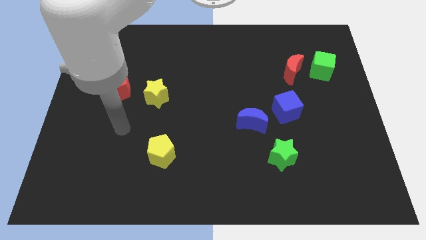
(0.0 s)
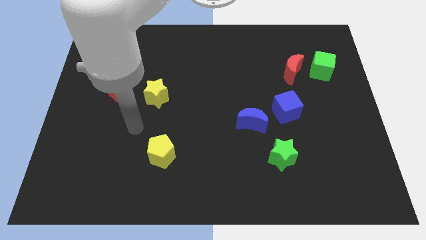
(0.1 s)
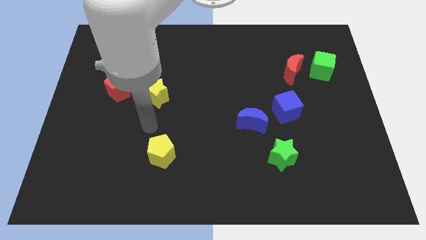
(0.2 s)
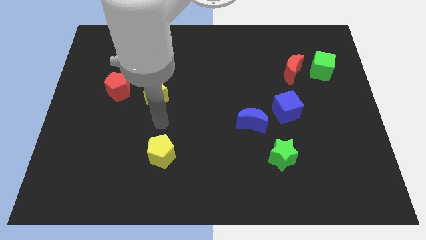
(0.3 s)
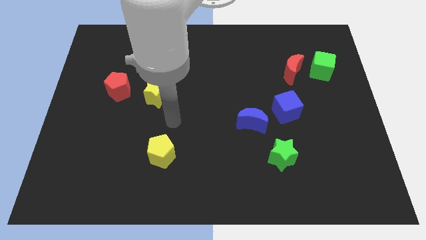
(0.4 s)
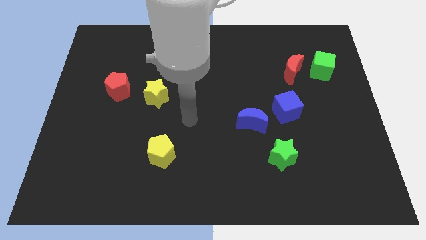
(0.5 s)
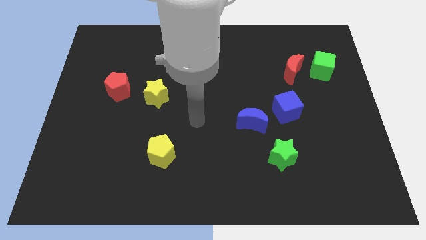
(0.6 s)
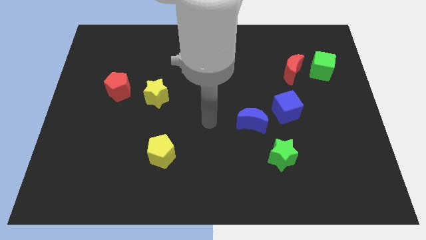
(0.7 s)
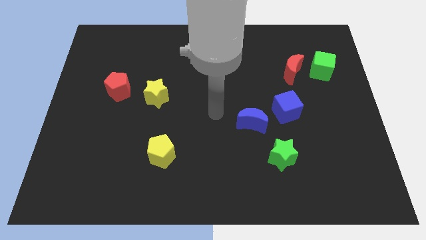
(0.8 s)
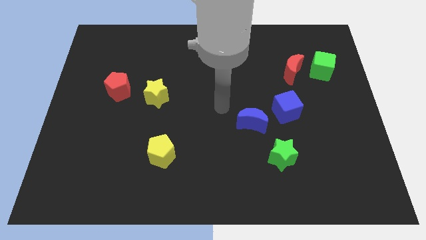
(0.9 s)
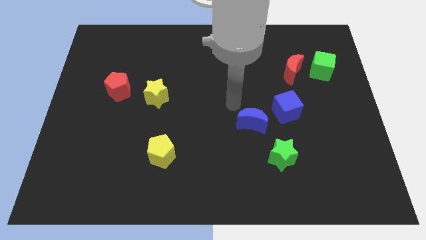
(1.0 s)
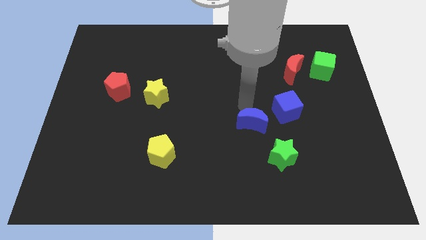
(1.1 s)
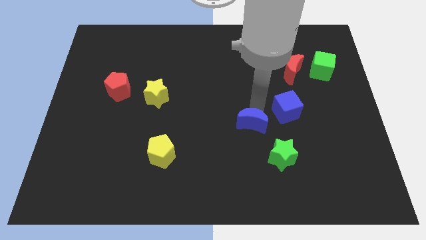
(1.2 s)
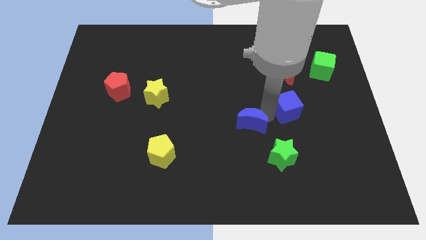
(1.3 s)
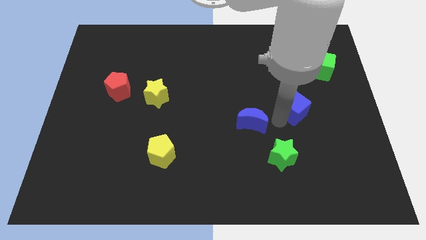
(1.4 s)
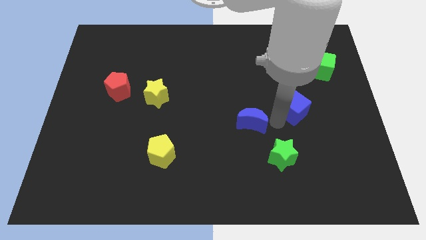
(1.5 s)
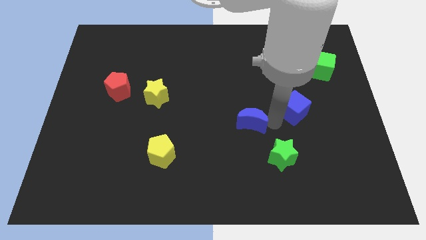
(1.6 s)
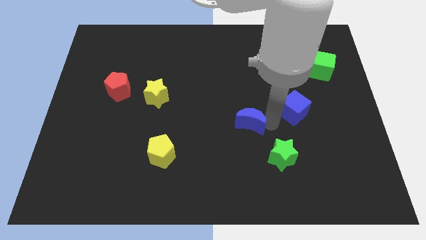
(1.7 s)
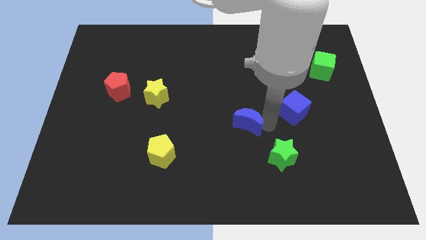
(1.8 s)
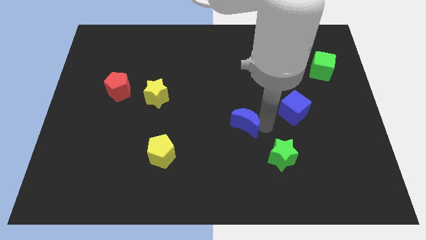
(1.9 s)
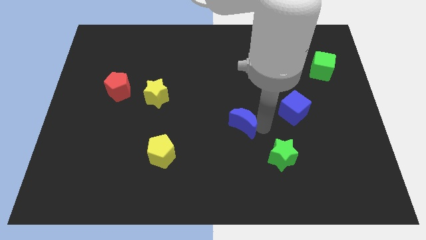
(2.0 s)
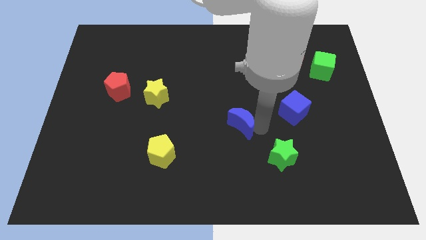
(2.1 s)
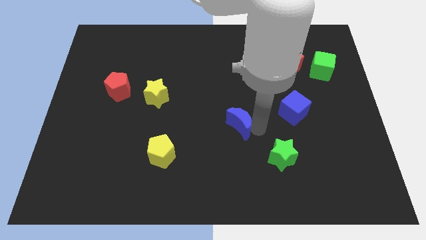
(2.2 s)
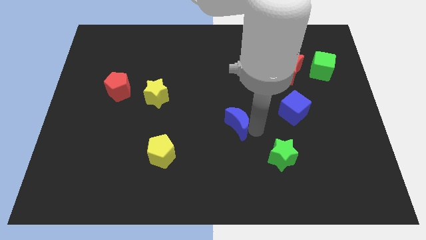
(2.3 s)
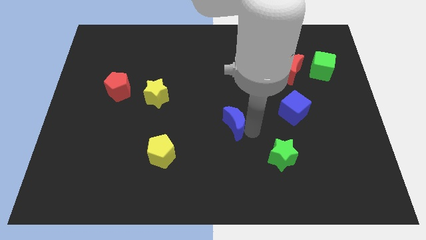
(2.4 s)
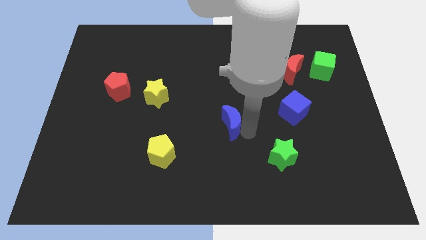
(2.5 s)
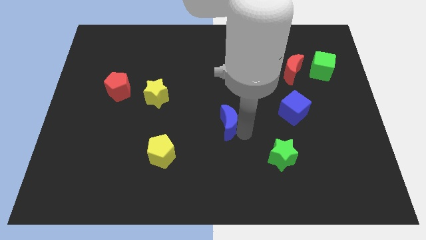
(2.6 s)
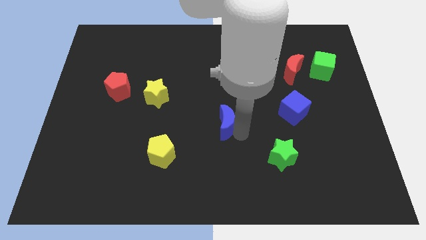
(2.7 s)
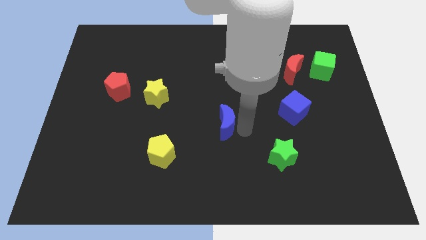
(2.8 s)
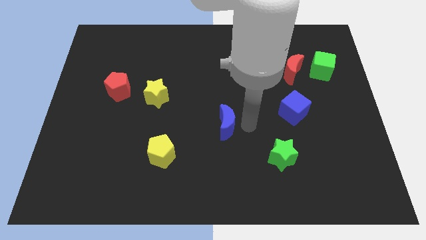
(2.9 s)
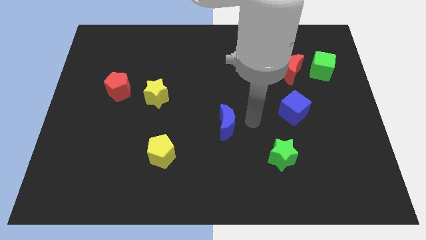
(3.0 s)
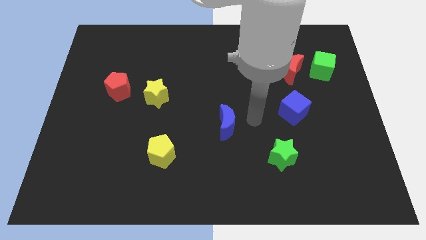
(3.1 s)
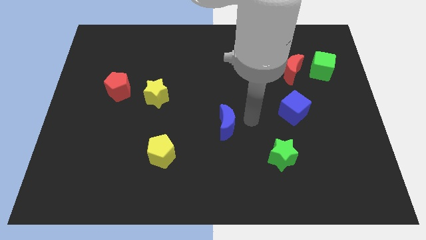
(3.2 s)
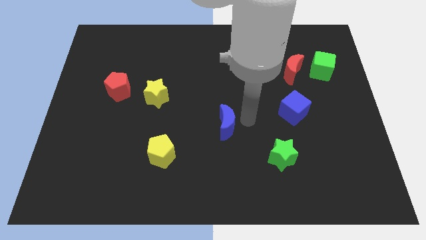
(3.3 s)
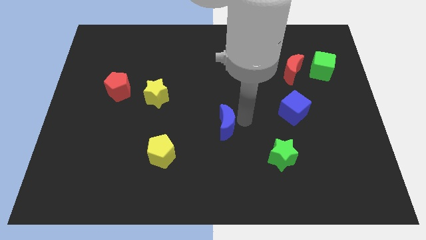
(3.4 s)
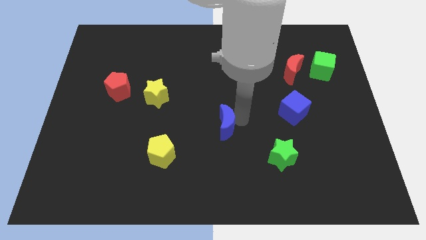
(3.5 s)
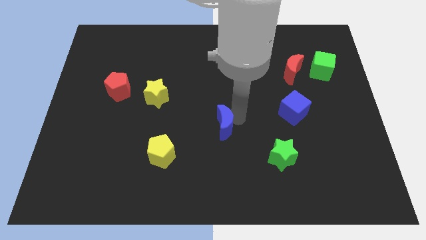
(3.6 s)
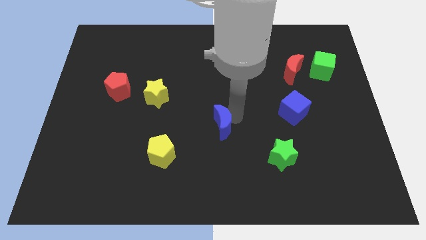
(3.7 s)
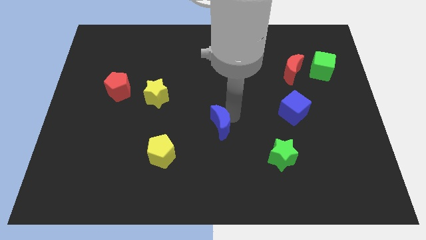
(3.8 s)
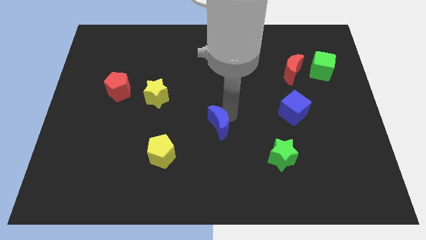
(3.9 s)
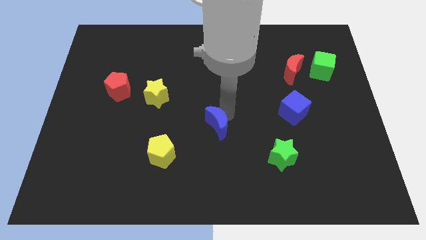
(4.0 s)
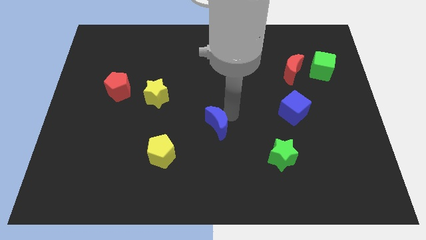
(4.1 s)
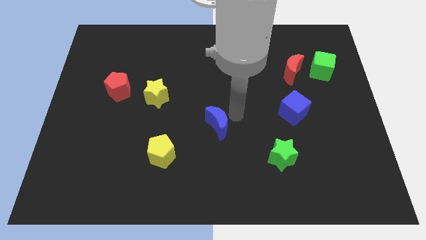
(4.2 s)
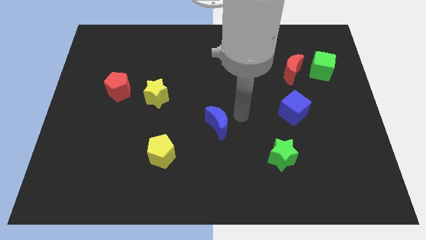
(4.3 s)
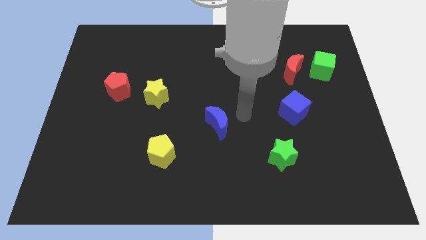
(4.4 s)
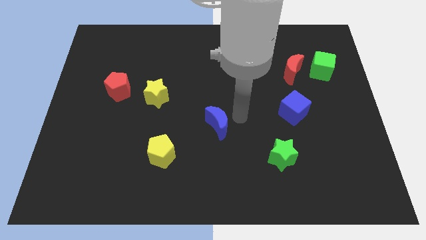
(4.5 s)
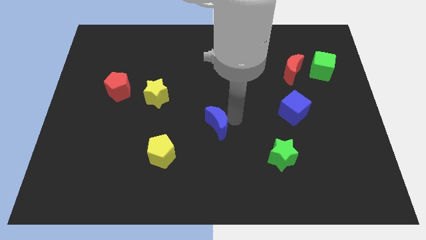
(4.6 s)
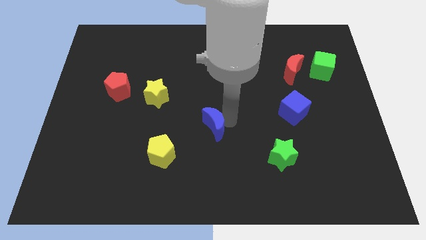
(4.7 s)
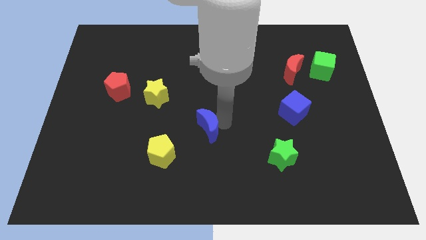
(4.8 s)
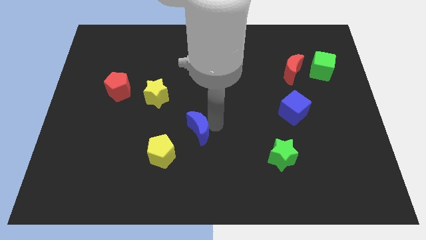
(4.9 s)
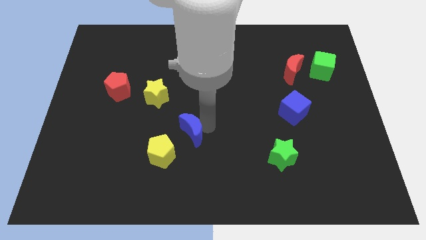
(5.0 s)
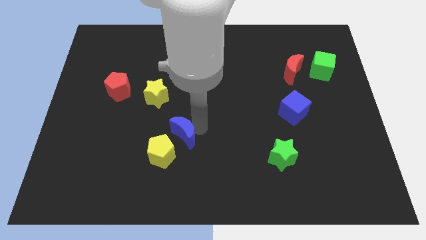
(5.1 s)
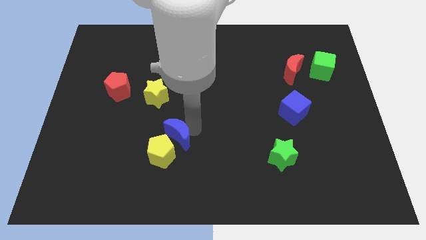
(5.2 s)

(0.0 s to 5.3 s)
push the blue moon next to the yellow pentagon
